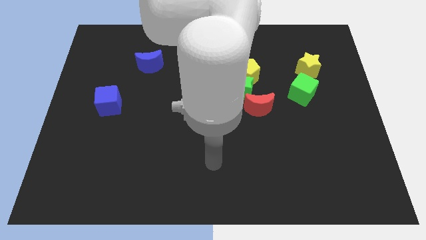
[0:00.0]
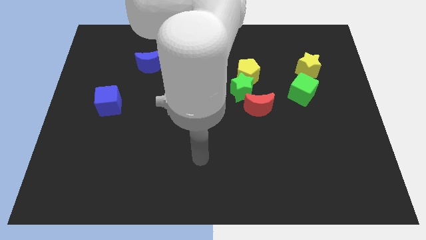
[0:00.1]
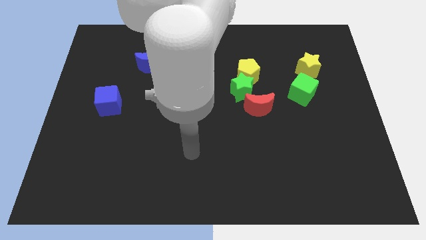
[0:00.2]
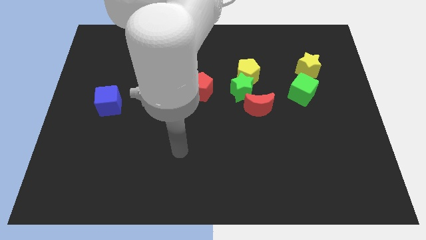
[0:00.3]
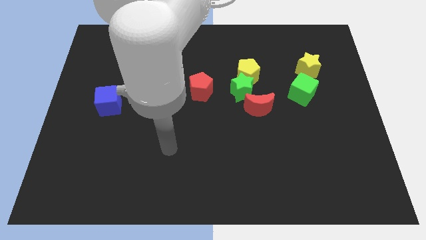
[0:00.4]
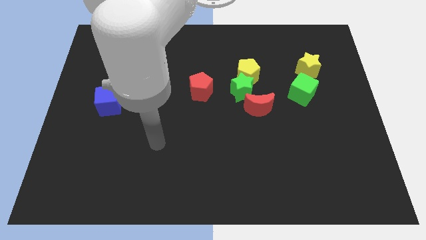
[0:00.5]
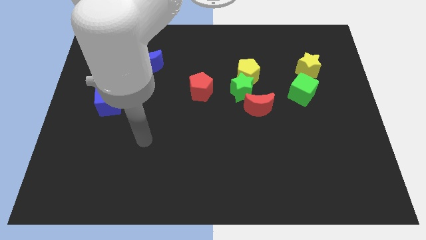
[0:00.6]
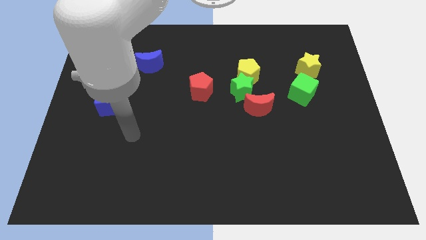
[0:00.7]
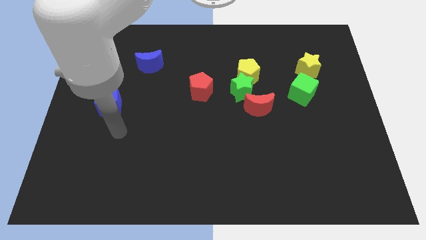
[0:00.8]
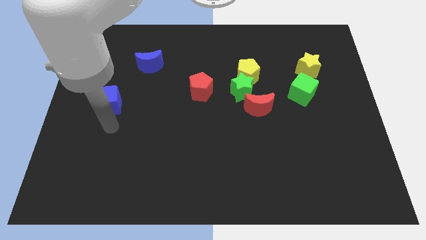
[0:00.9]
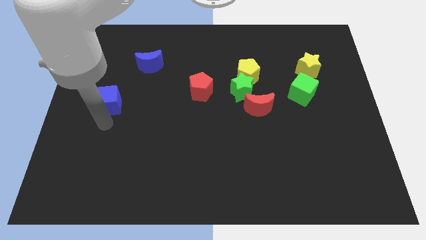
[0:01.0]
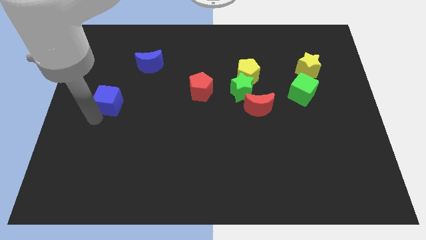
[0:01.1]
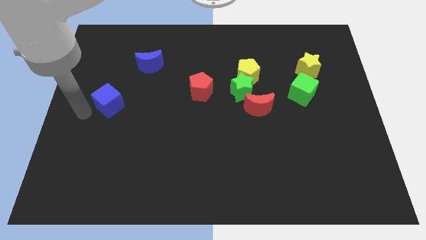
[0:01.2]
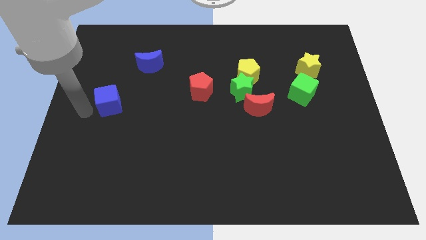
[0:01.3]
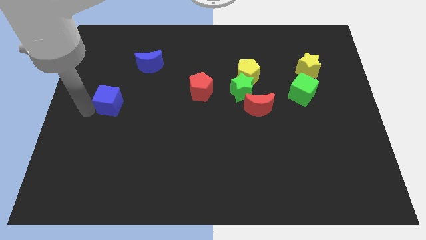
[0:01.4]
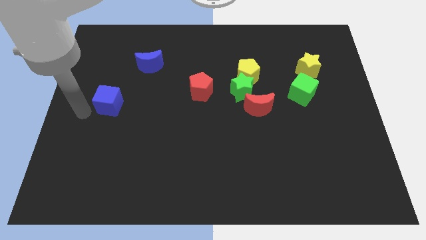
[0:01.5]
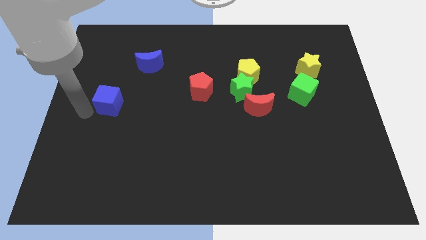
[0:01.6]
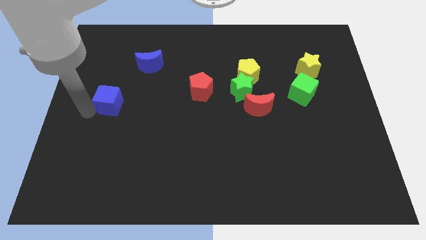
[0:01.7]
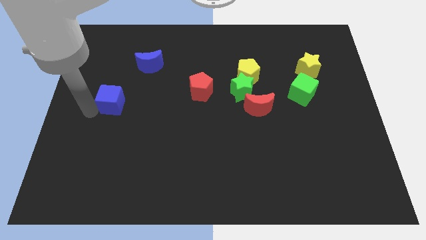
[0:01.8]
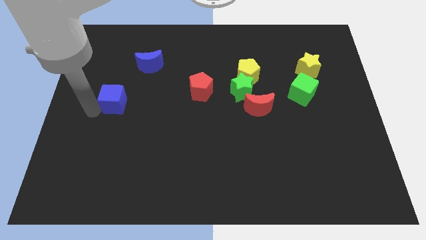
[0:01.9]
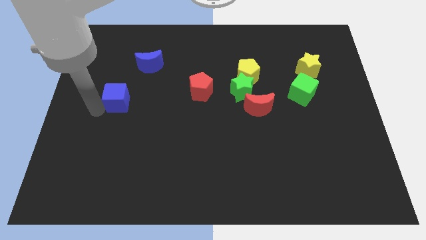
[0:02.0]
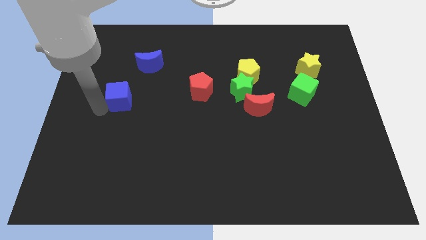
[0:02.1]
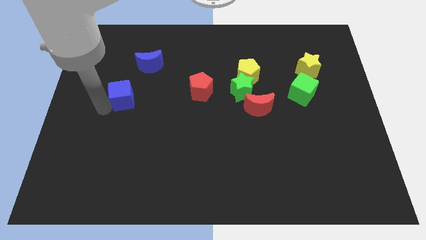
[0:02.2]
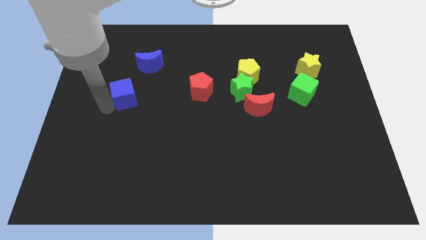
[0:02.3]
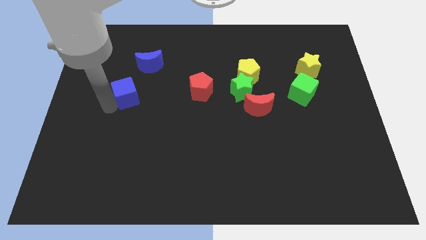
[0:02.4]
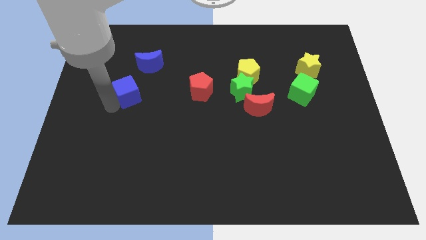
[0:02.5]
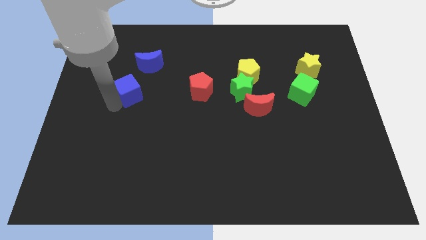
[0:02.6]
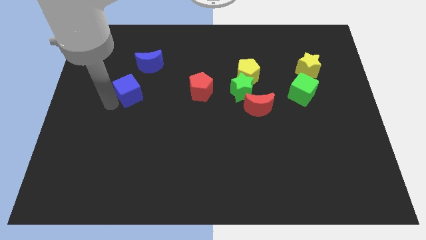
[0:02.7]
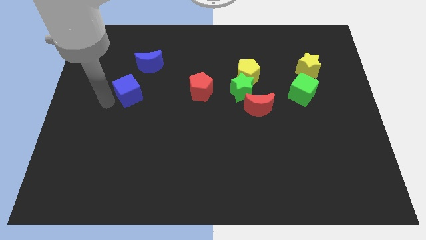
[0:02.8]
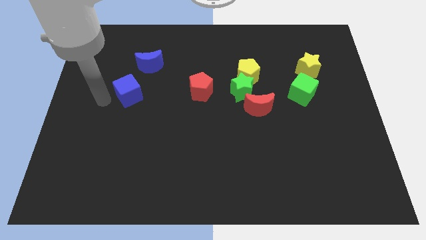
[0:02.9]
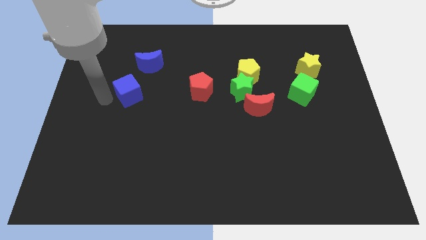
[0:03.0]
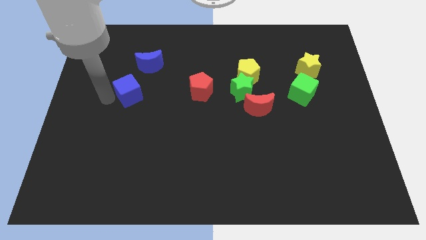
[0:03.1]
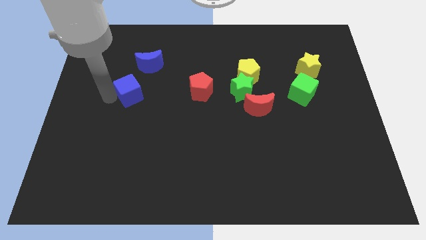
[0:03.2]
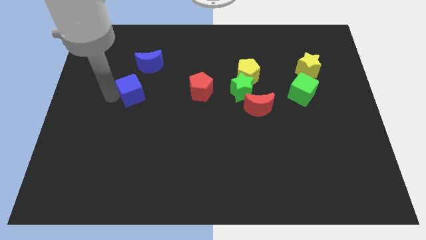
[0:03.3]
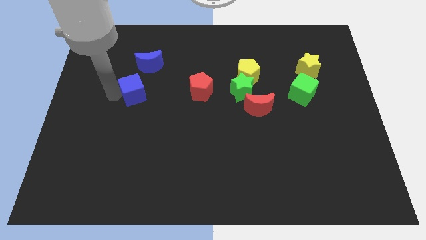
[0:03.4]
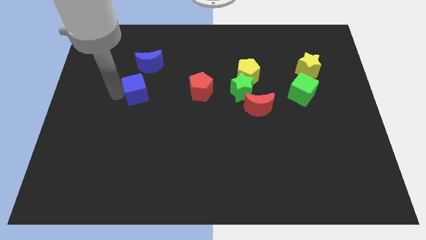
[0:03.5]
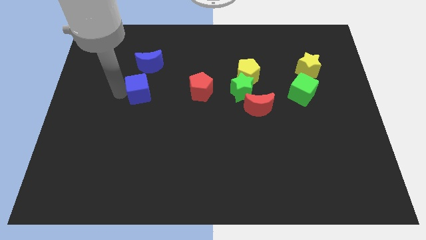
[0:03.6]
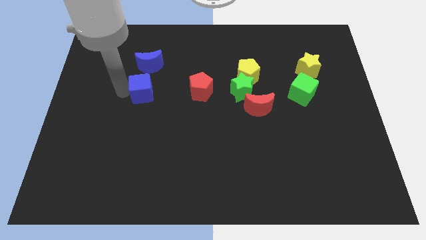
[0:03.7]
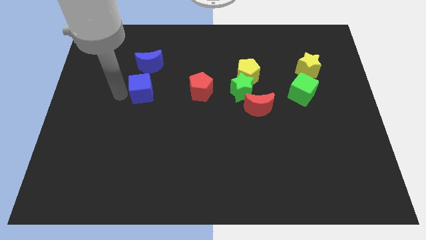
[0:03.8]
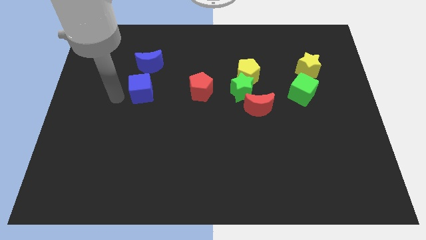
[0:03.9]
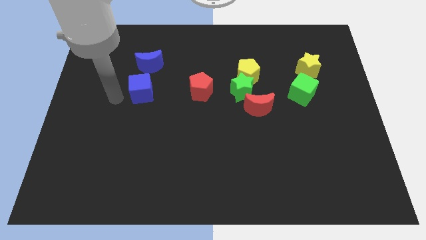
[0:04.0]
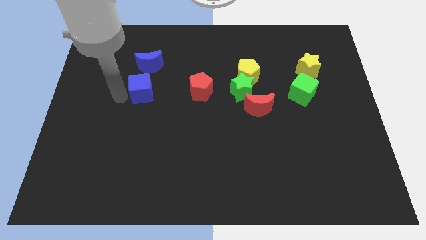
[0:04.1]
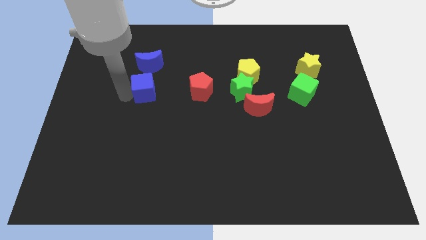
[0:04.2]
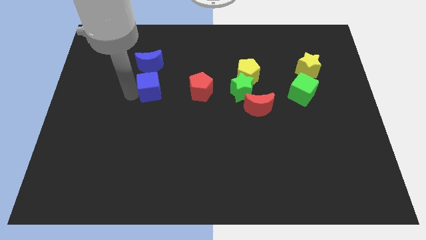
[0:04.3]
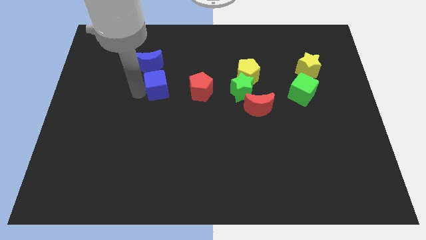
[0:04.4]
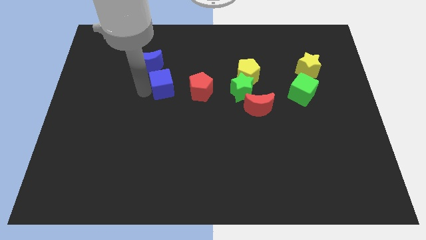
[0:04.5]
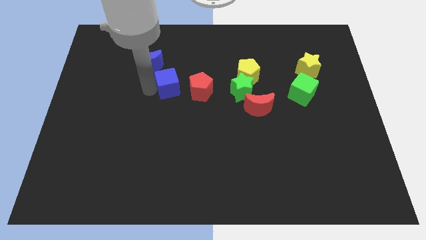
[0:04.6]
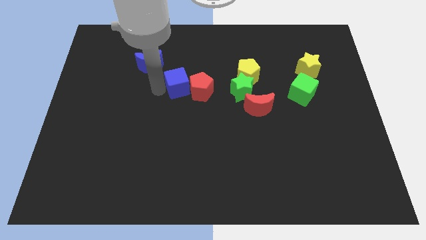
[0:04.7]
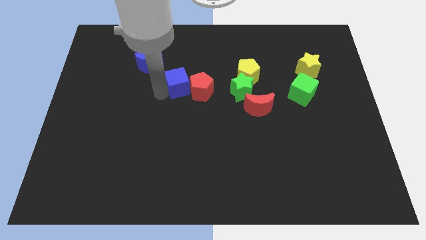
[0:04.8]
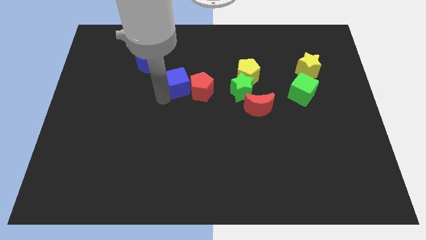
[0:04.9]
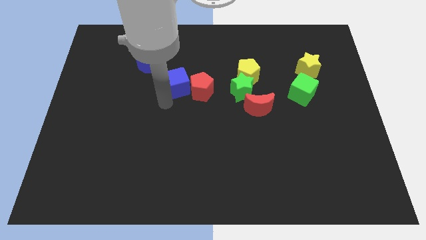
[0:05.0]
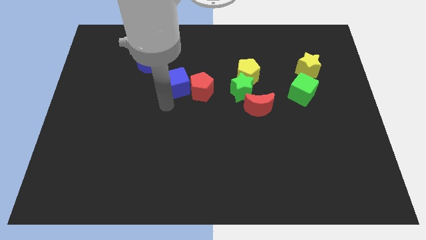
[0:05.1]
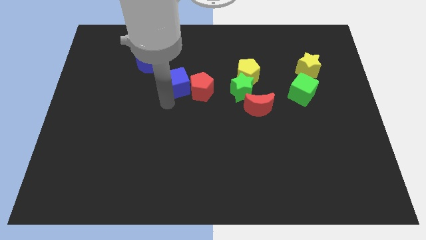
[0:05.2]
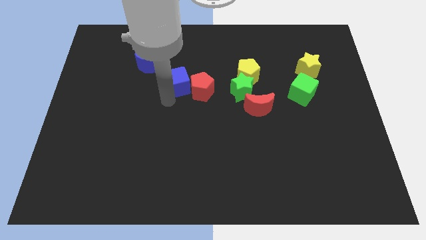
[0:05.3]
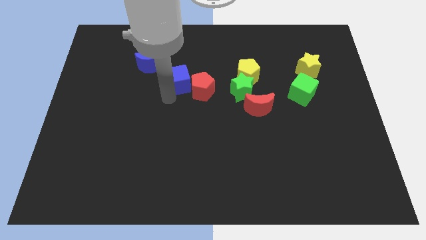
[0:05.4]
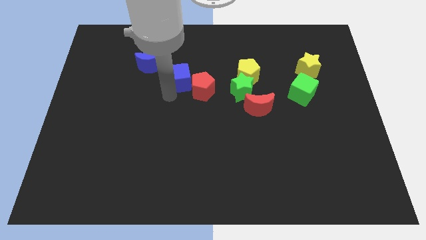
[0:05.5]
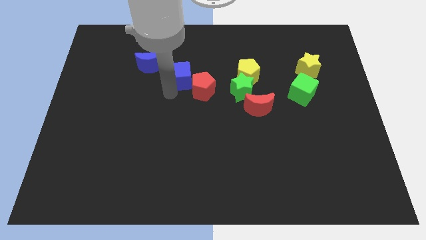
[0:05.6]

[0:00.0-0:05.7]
push the blue cube just right of the blue moon

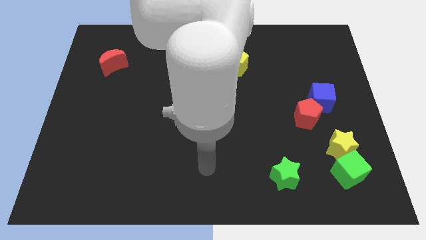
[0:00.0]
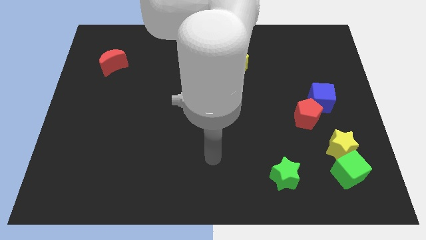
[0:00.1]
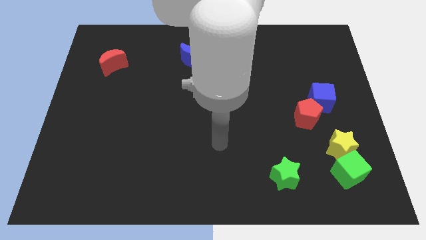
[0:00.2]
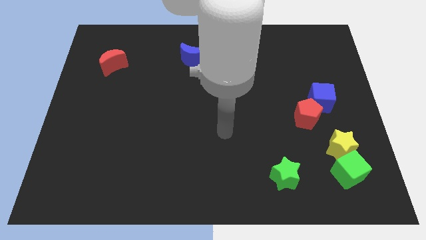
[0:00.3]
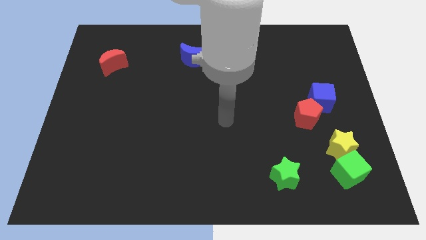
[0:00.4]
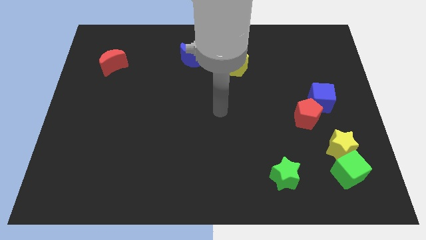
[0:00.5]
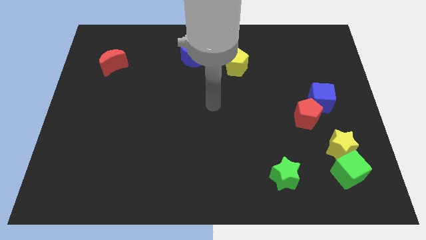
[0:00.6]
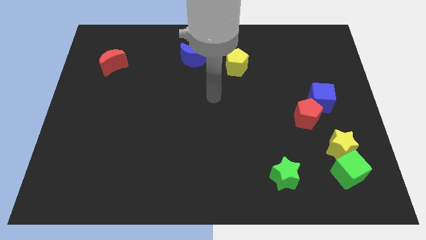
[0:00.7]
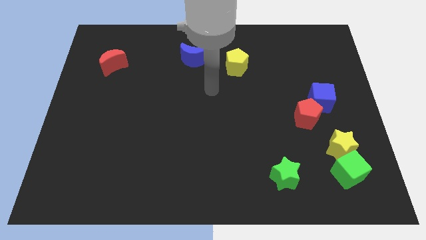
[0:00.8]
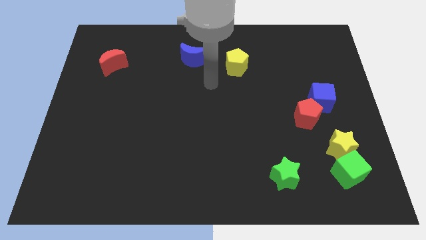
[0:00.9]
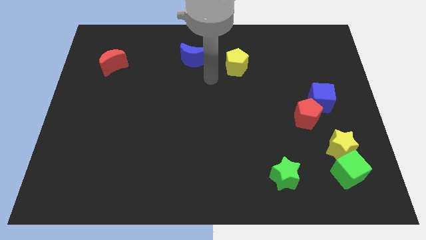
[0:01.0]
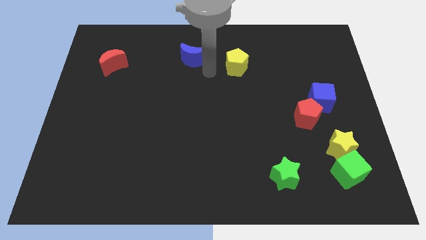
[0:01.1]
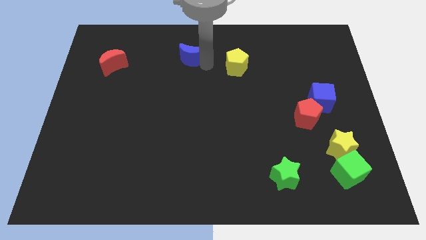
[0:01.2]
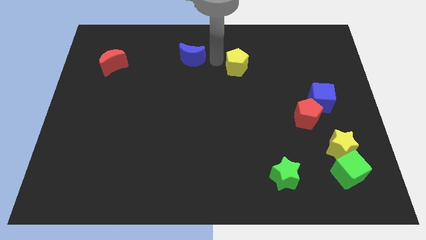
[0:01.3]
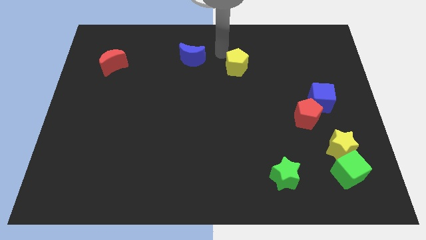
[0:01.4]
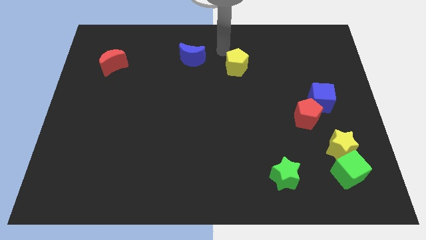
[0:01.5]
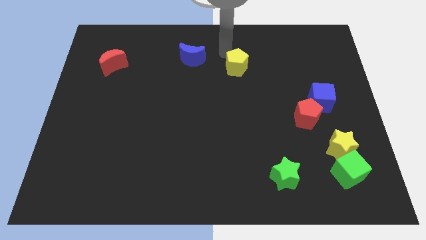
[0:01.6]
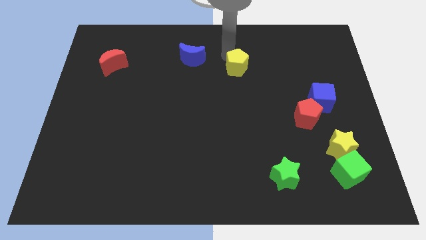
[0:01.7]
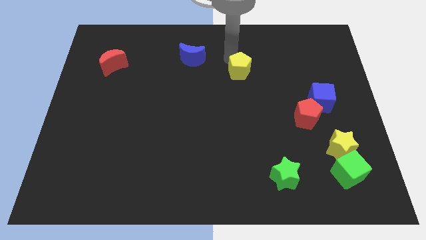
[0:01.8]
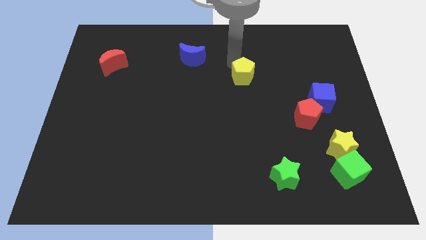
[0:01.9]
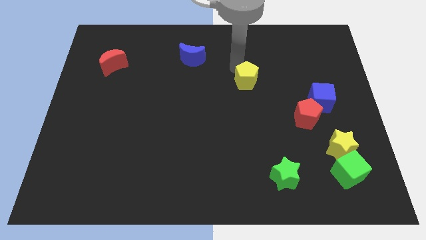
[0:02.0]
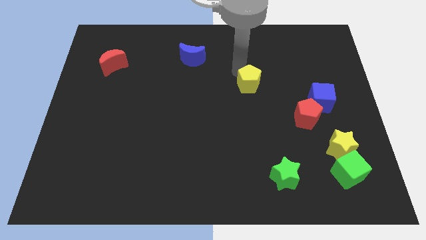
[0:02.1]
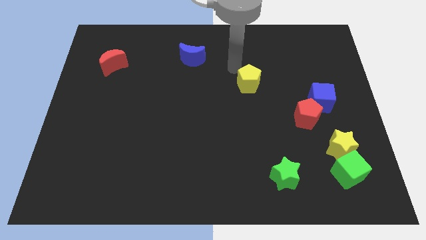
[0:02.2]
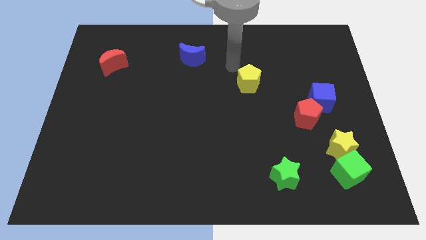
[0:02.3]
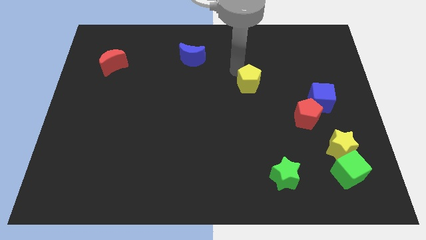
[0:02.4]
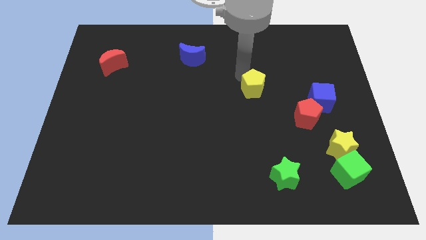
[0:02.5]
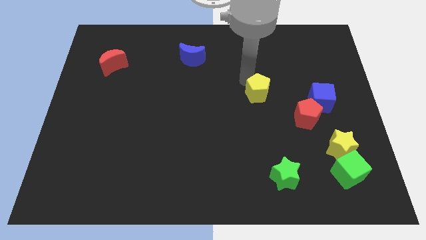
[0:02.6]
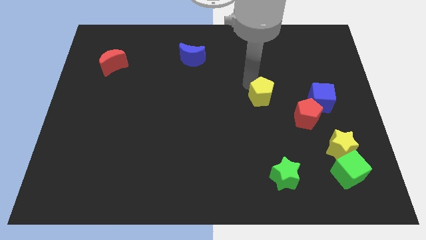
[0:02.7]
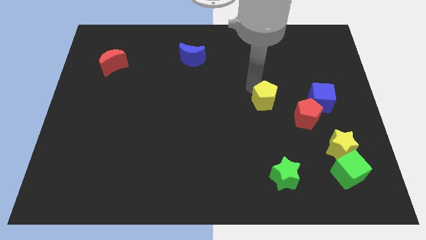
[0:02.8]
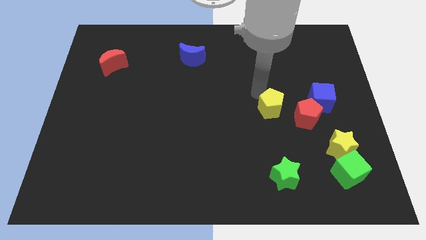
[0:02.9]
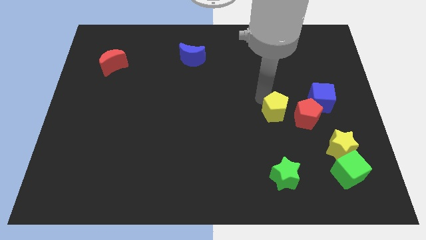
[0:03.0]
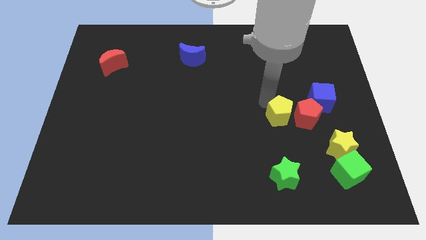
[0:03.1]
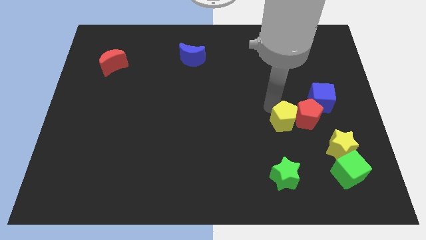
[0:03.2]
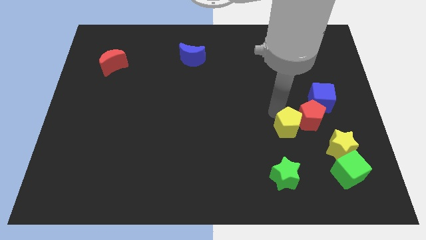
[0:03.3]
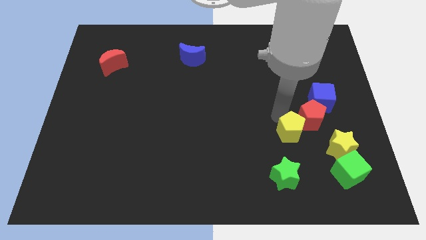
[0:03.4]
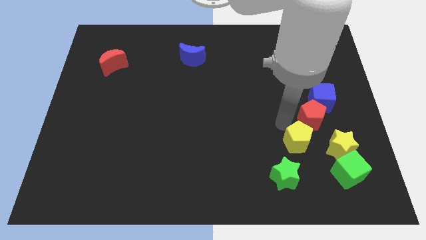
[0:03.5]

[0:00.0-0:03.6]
slide the yellow pentagon to the top left side of the green cube
